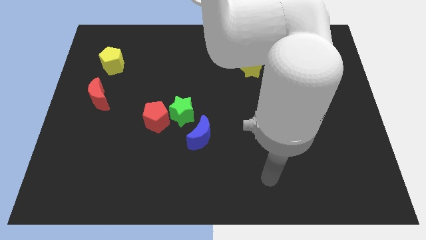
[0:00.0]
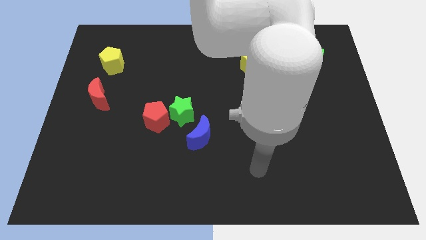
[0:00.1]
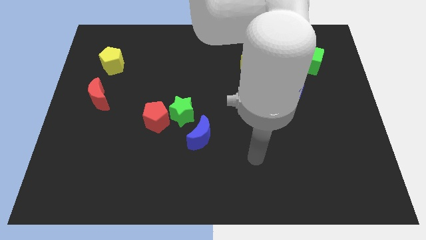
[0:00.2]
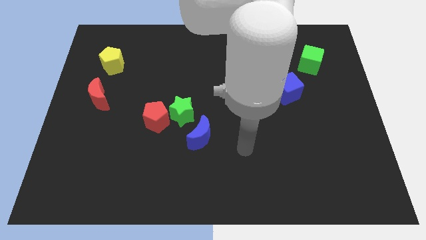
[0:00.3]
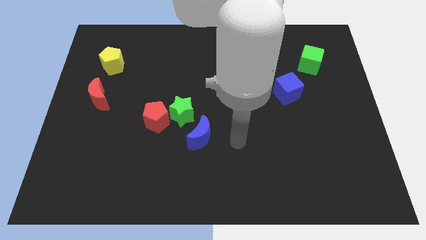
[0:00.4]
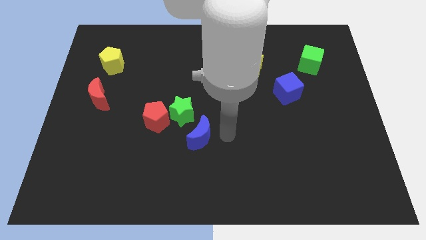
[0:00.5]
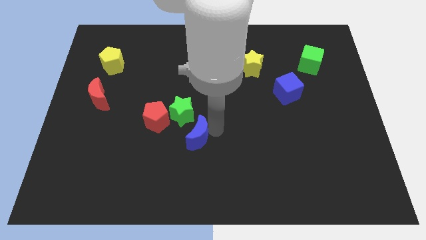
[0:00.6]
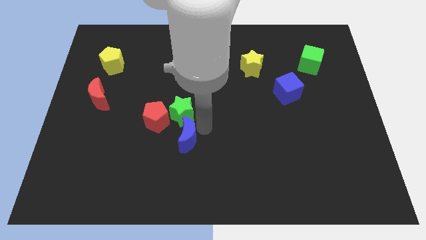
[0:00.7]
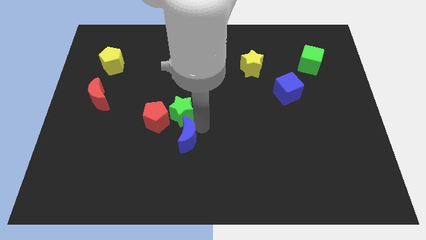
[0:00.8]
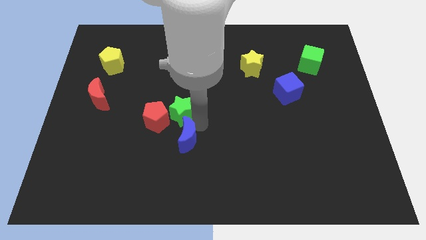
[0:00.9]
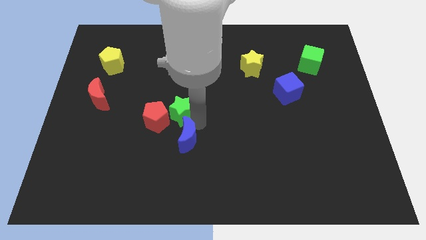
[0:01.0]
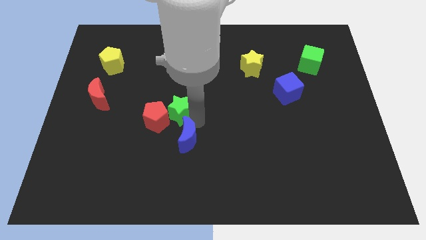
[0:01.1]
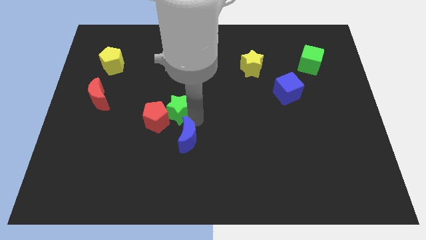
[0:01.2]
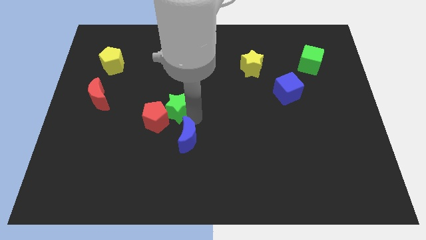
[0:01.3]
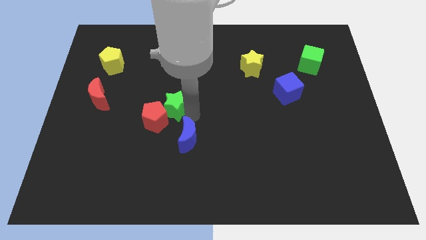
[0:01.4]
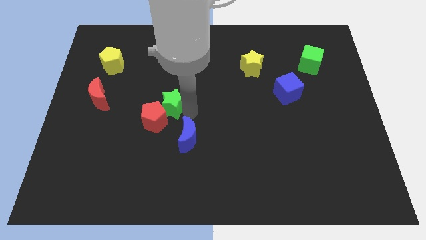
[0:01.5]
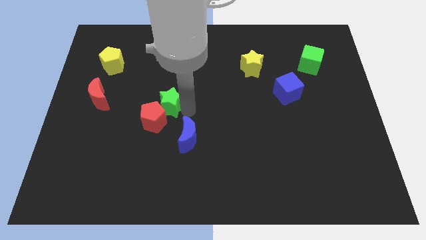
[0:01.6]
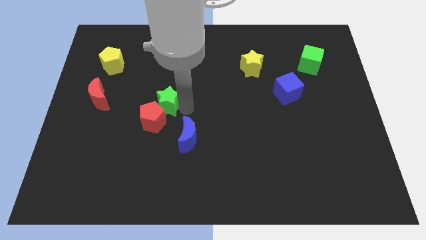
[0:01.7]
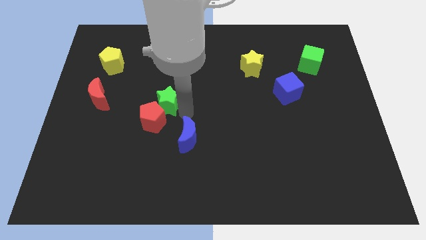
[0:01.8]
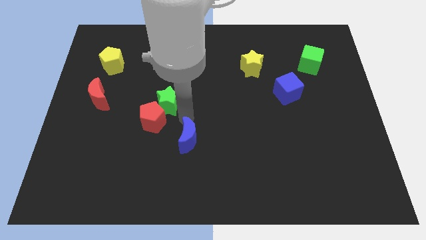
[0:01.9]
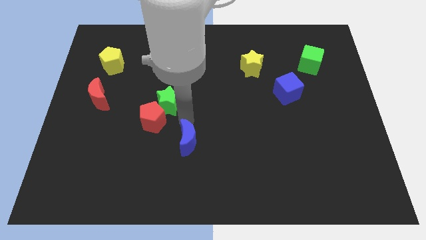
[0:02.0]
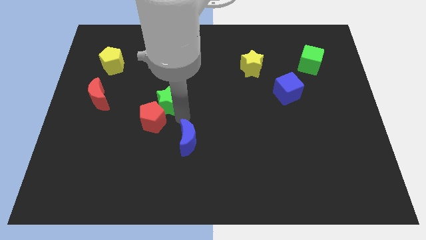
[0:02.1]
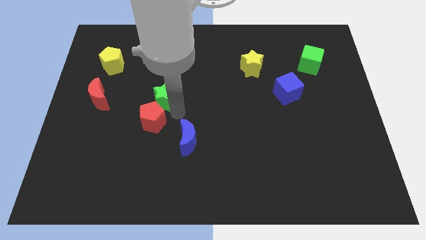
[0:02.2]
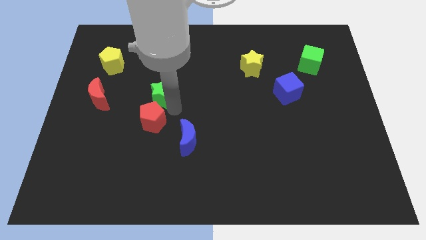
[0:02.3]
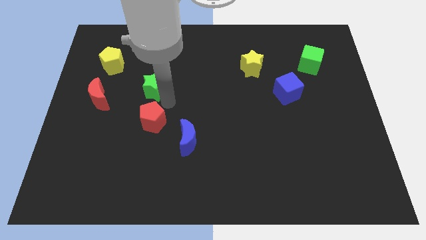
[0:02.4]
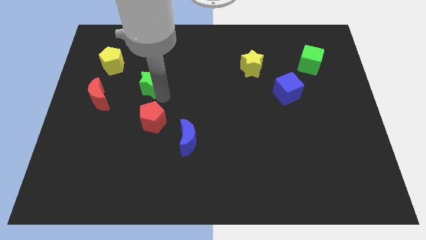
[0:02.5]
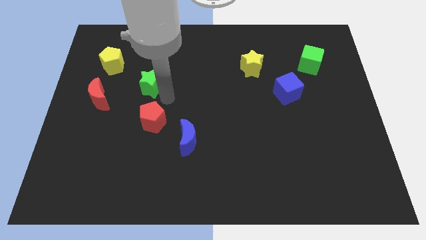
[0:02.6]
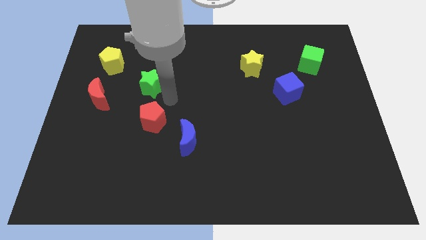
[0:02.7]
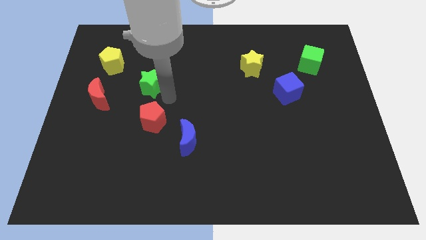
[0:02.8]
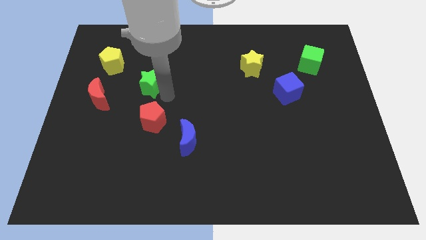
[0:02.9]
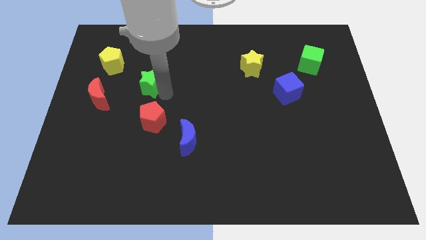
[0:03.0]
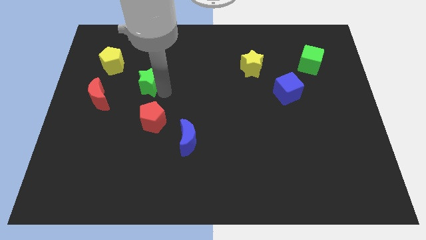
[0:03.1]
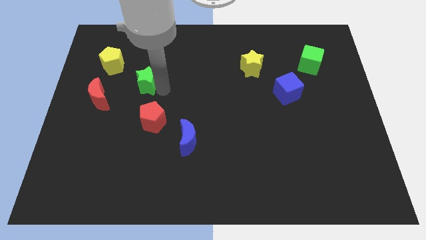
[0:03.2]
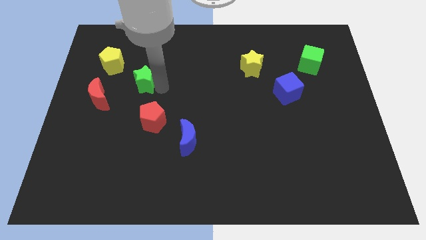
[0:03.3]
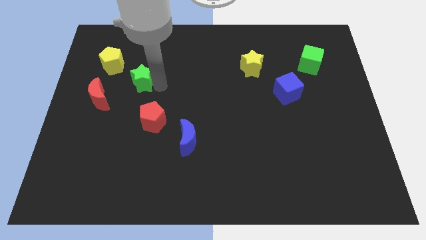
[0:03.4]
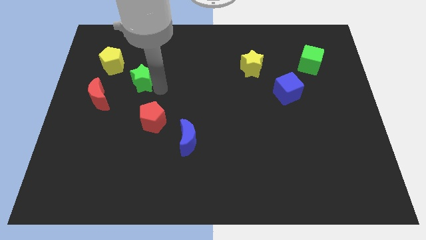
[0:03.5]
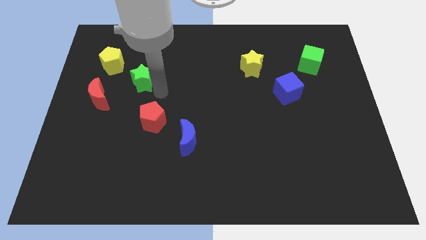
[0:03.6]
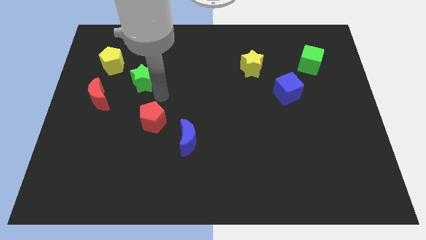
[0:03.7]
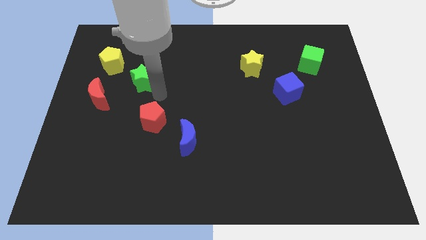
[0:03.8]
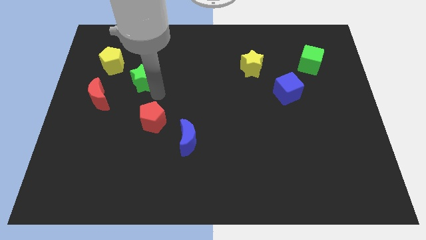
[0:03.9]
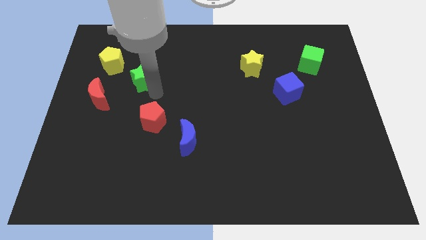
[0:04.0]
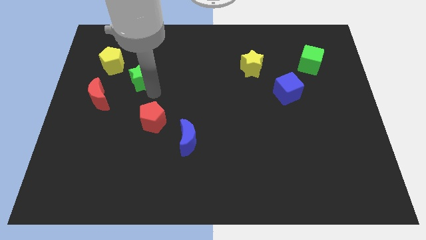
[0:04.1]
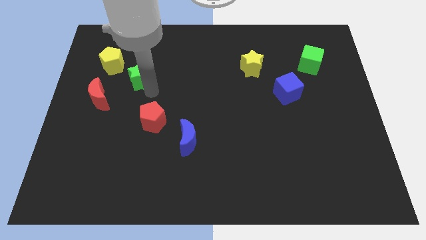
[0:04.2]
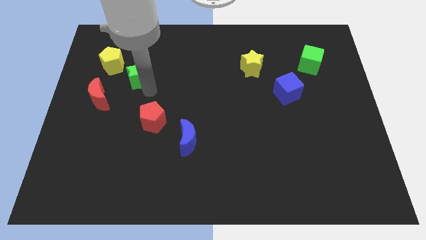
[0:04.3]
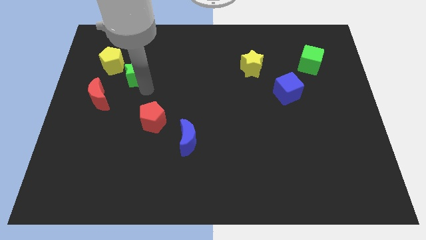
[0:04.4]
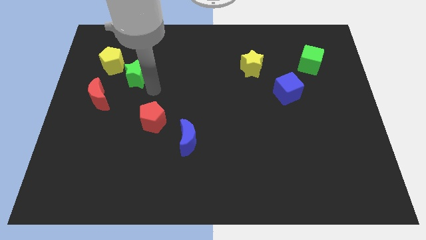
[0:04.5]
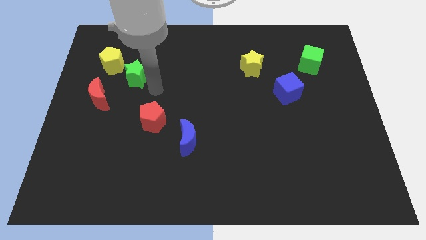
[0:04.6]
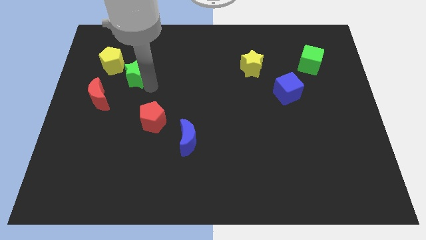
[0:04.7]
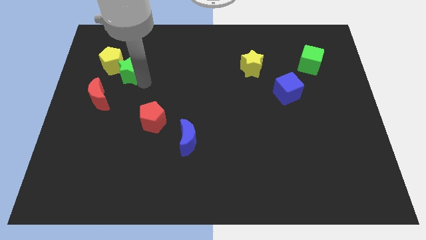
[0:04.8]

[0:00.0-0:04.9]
push the green star to the yellow pentagon

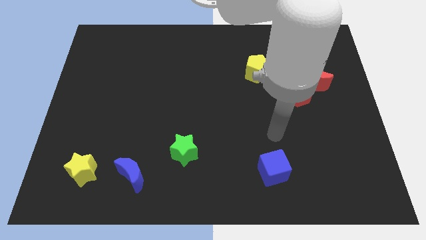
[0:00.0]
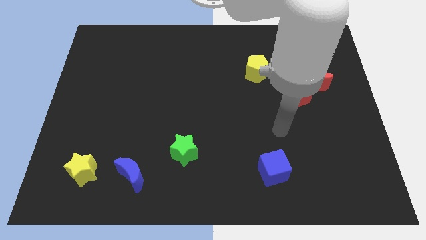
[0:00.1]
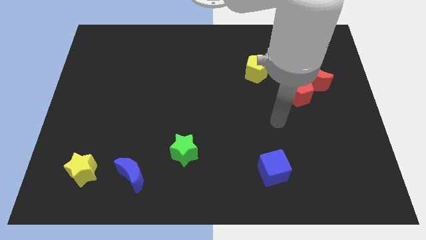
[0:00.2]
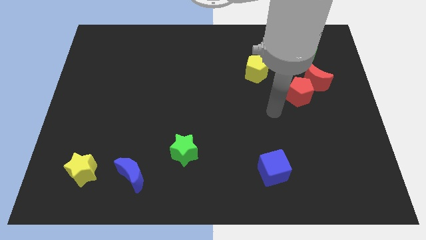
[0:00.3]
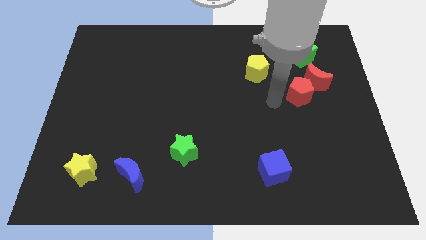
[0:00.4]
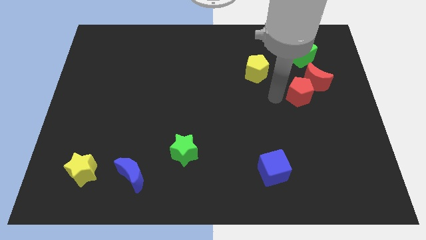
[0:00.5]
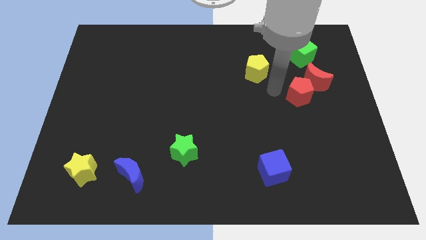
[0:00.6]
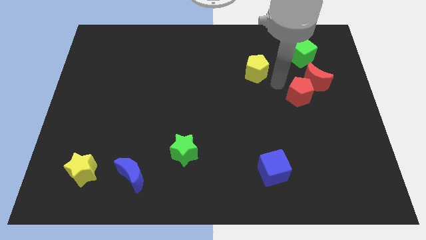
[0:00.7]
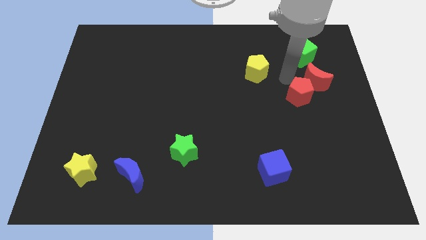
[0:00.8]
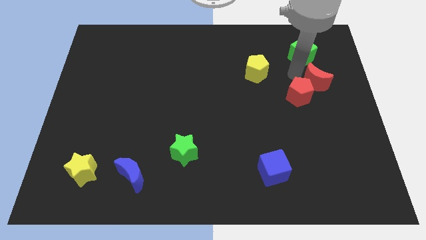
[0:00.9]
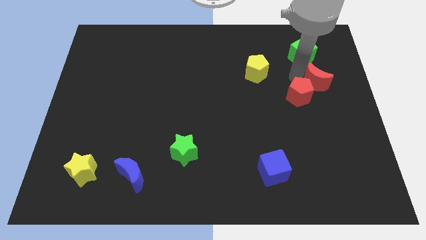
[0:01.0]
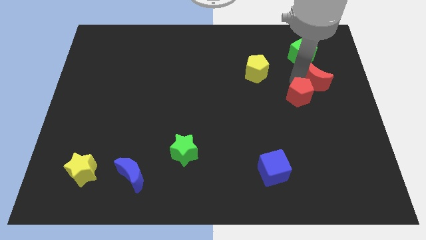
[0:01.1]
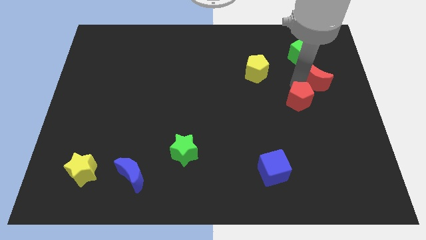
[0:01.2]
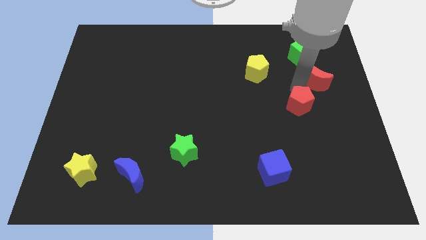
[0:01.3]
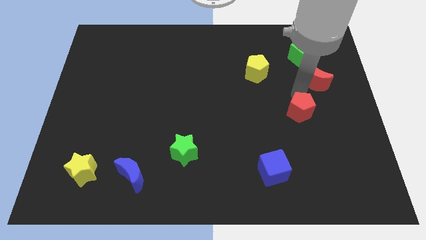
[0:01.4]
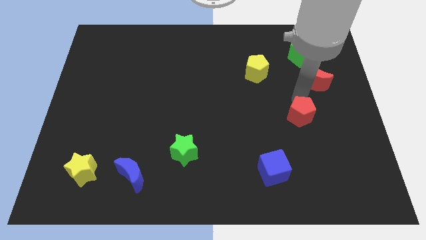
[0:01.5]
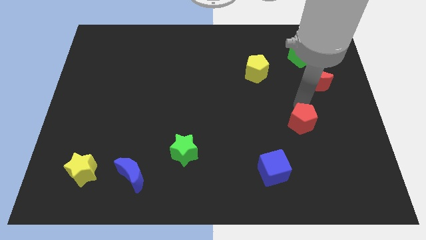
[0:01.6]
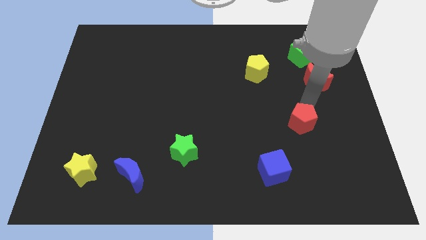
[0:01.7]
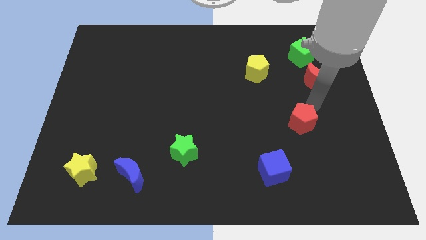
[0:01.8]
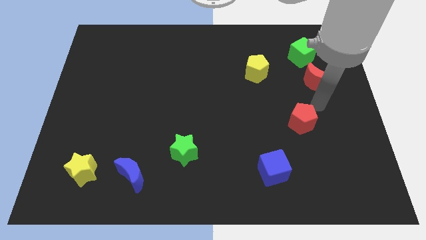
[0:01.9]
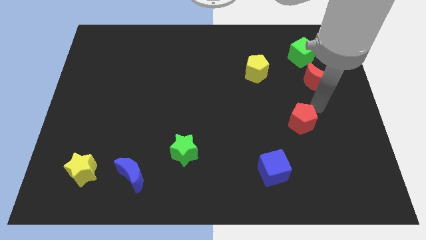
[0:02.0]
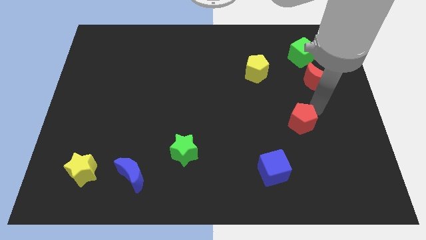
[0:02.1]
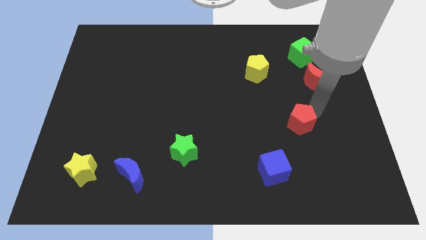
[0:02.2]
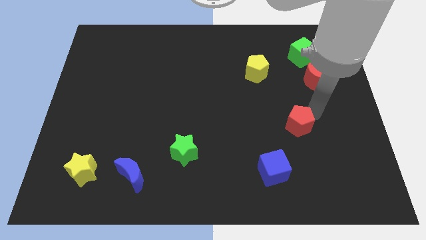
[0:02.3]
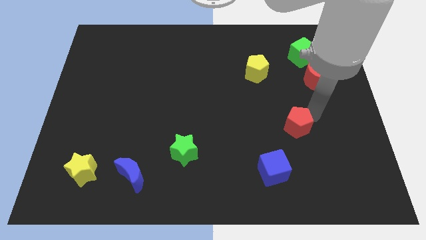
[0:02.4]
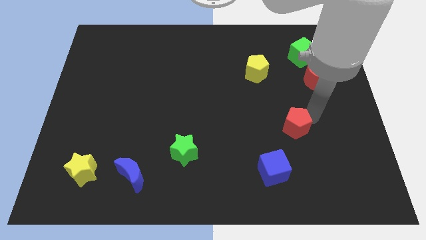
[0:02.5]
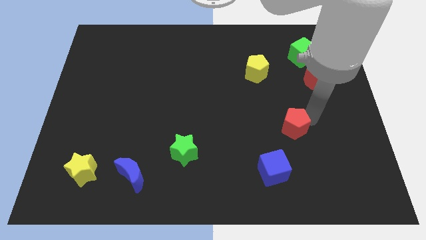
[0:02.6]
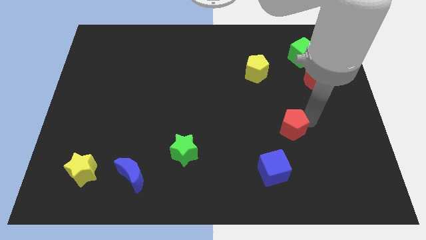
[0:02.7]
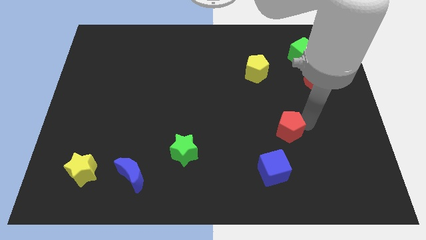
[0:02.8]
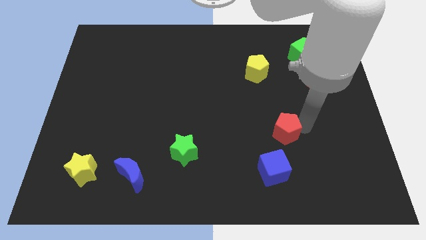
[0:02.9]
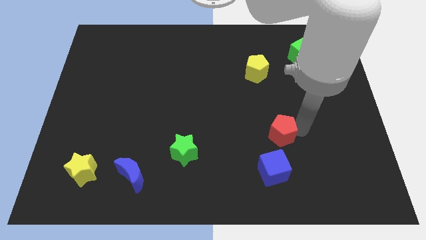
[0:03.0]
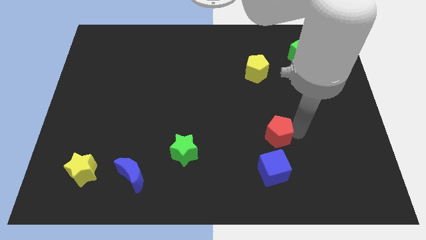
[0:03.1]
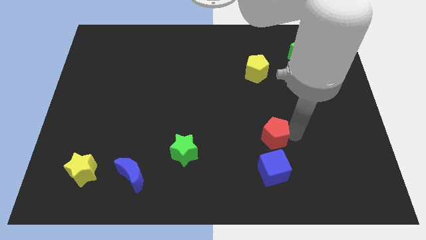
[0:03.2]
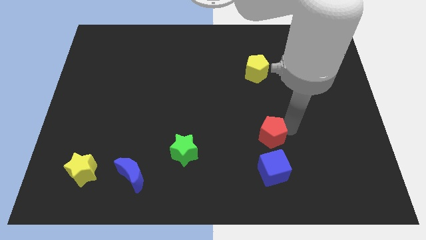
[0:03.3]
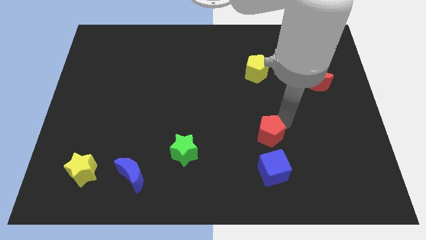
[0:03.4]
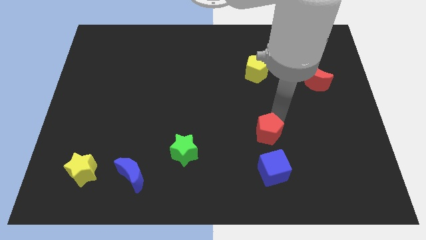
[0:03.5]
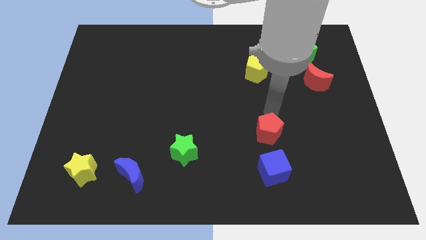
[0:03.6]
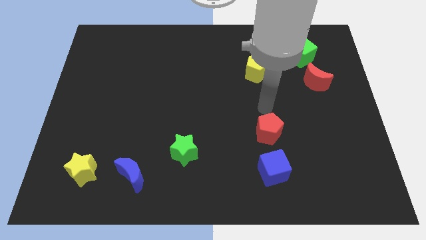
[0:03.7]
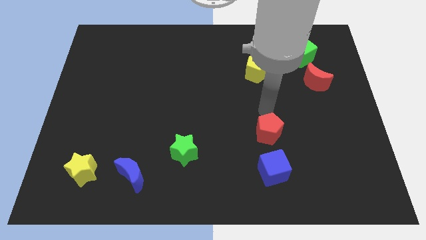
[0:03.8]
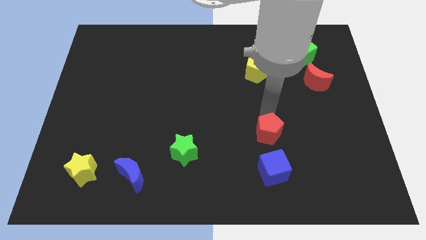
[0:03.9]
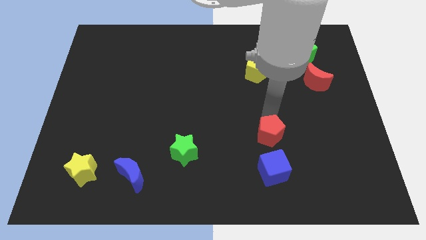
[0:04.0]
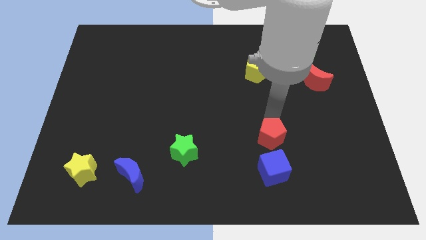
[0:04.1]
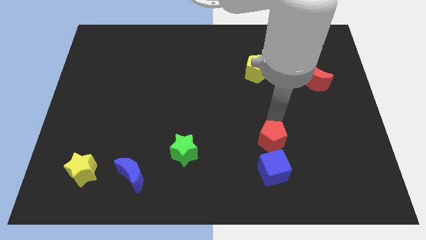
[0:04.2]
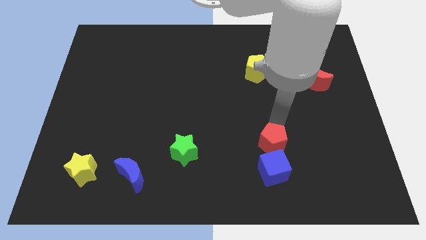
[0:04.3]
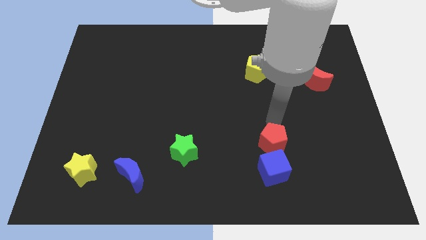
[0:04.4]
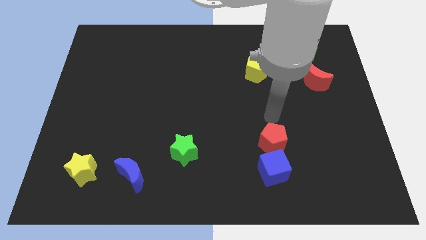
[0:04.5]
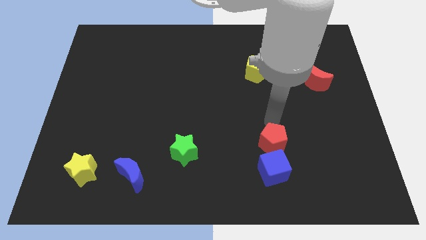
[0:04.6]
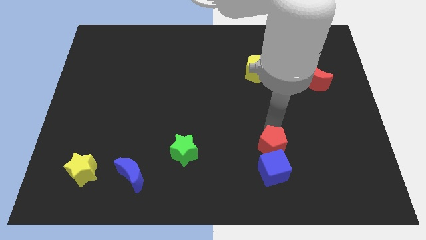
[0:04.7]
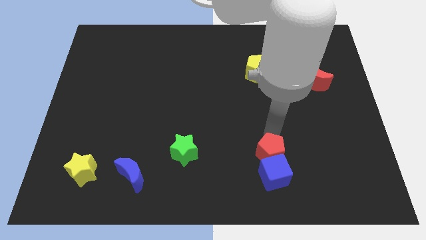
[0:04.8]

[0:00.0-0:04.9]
slide the red pentagon to the blue cube
